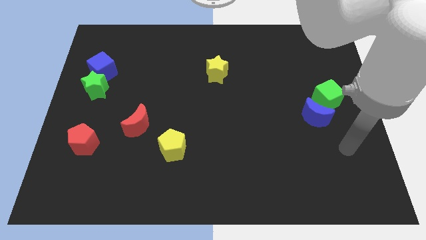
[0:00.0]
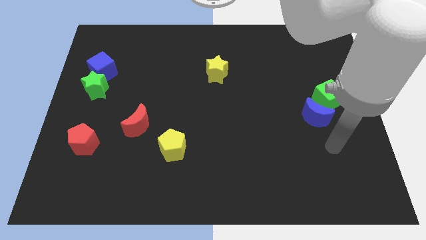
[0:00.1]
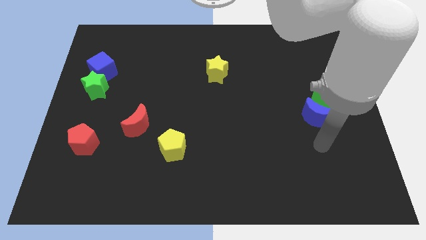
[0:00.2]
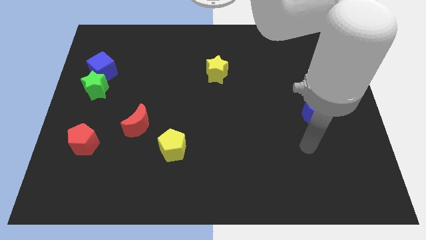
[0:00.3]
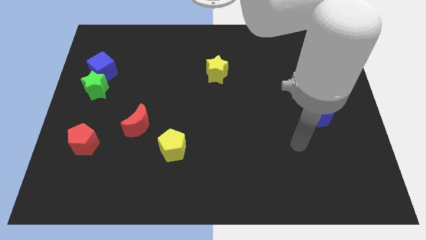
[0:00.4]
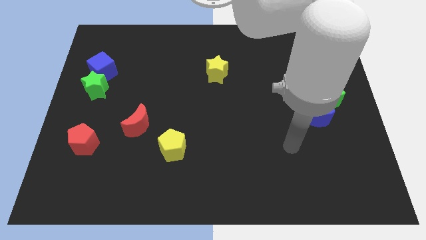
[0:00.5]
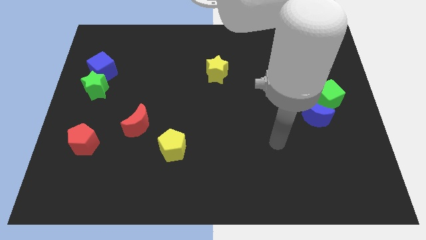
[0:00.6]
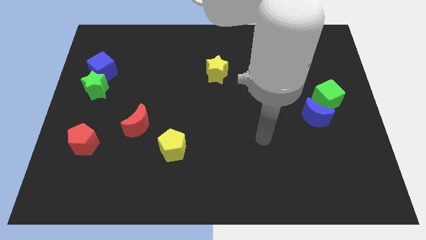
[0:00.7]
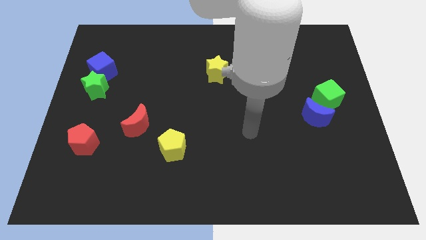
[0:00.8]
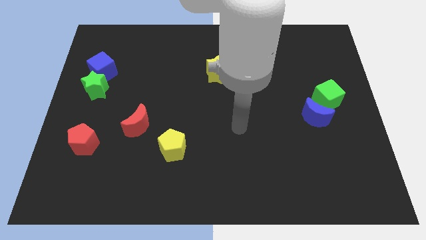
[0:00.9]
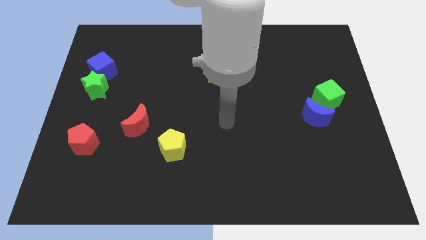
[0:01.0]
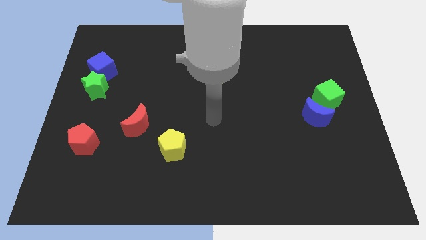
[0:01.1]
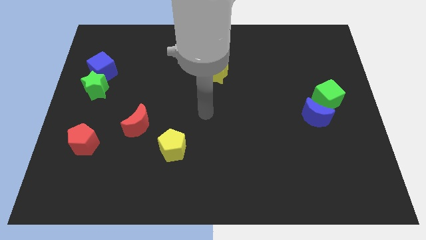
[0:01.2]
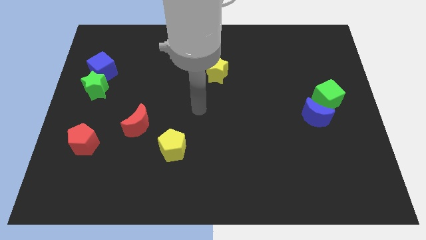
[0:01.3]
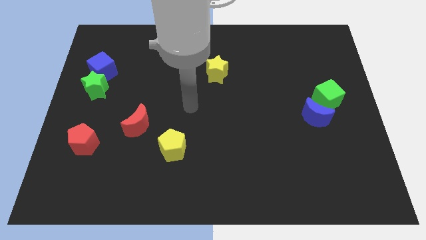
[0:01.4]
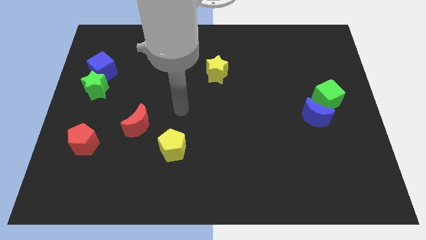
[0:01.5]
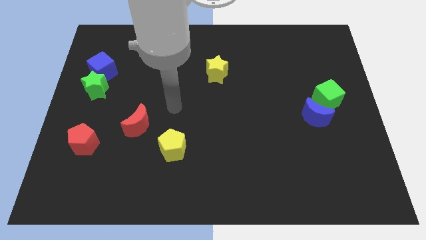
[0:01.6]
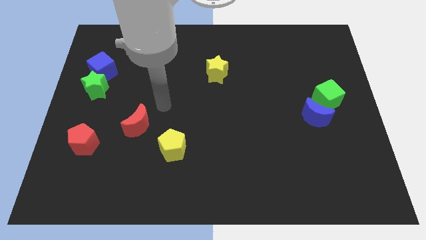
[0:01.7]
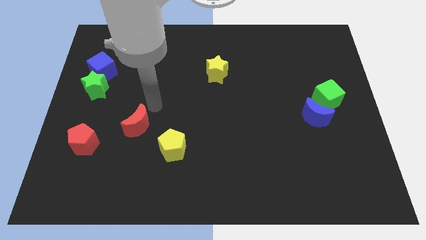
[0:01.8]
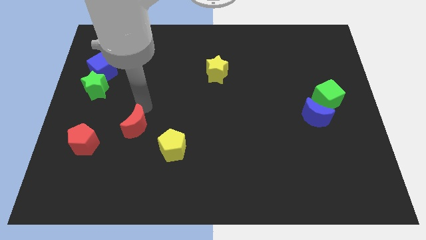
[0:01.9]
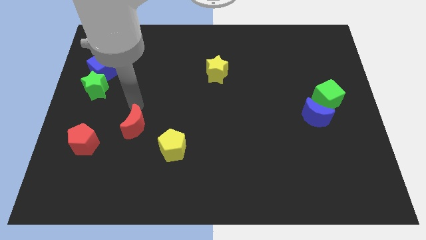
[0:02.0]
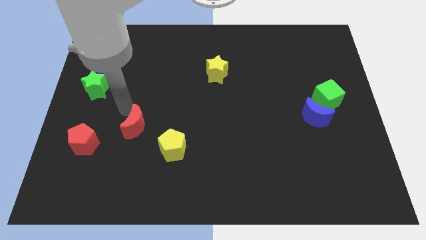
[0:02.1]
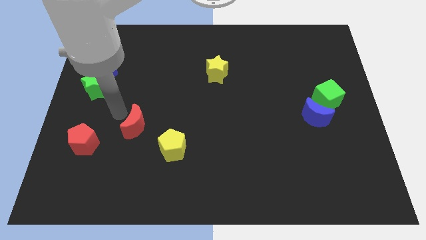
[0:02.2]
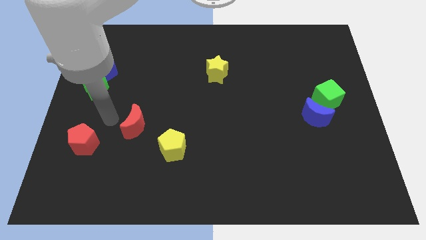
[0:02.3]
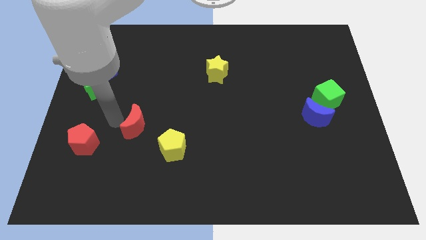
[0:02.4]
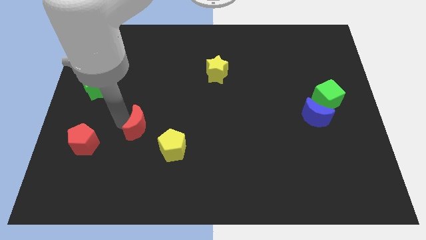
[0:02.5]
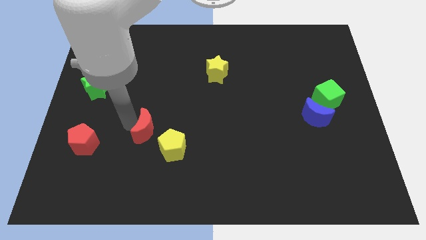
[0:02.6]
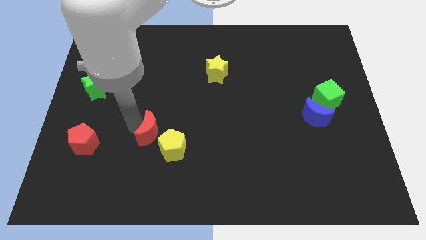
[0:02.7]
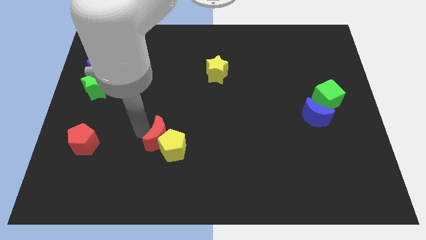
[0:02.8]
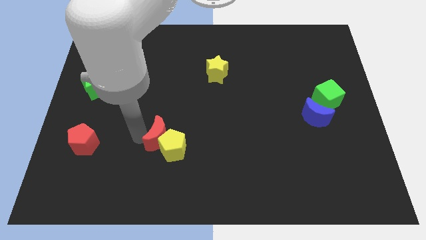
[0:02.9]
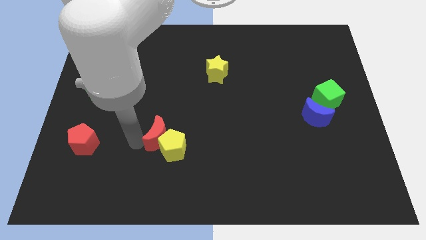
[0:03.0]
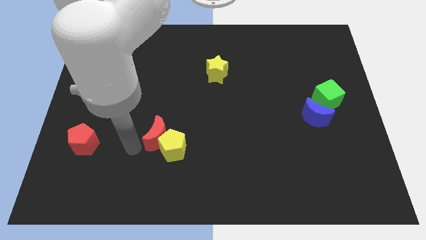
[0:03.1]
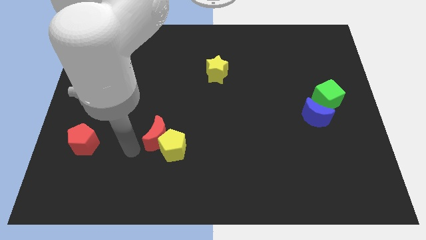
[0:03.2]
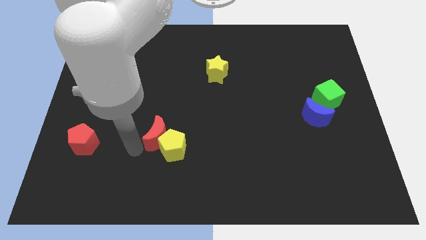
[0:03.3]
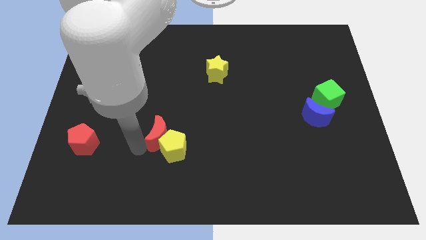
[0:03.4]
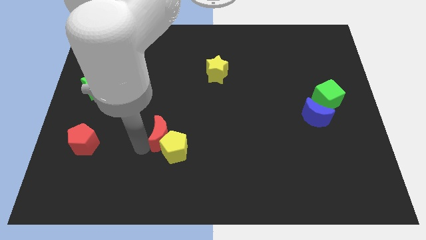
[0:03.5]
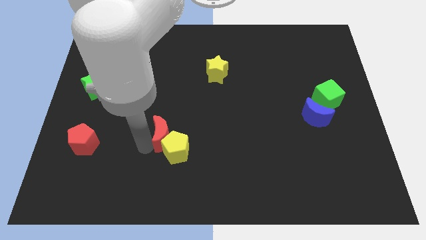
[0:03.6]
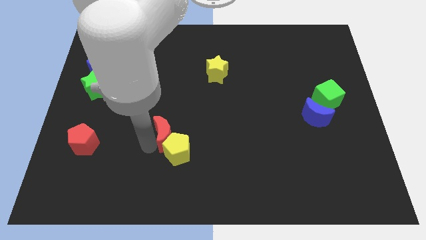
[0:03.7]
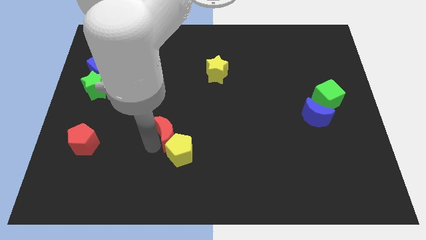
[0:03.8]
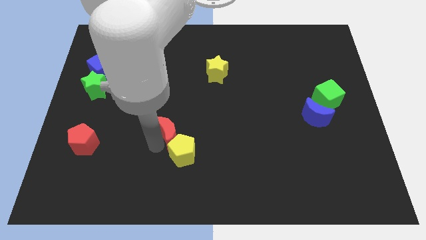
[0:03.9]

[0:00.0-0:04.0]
slightly move the red moon right

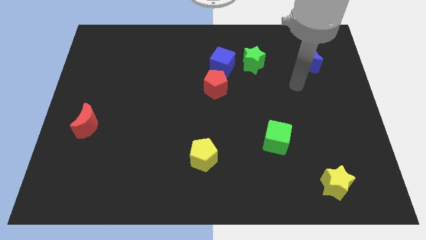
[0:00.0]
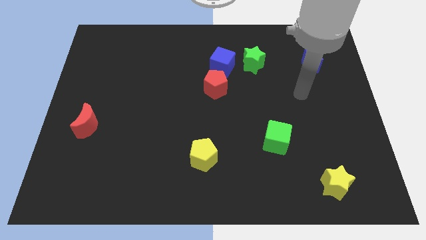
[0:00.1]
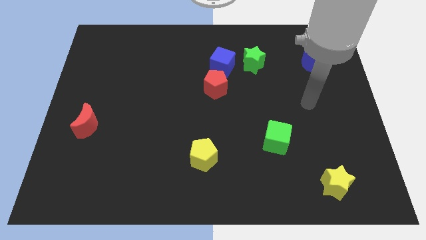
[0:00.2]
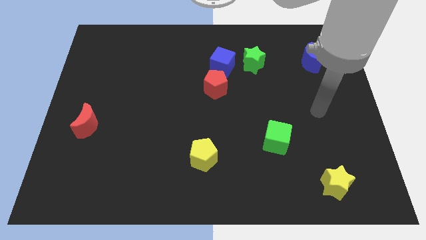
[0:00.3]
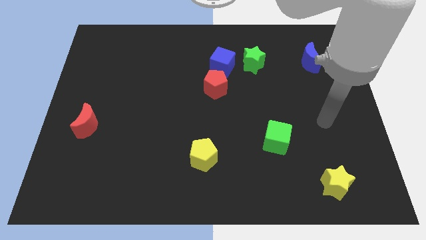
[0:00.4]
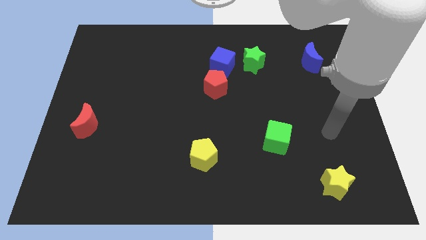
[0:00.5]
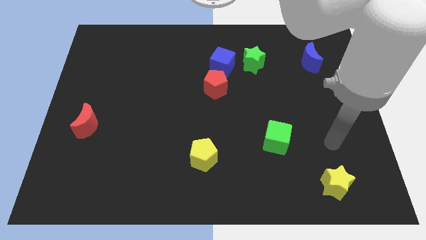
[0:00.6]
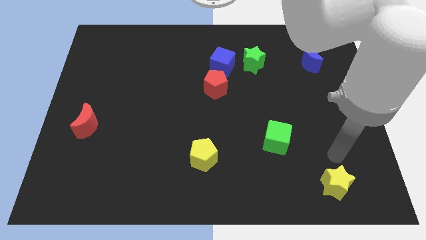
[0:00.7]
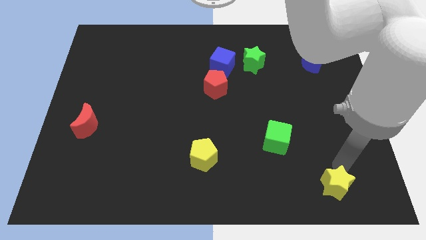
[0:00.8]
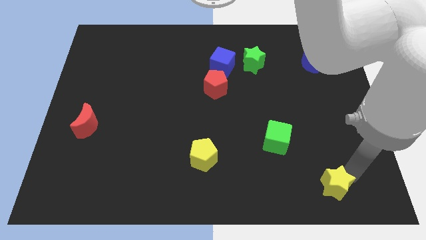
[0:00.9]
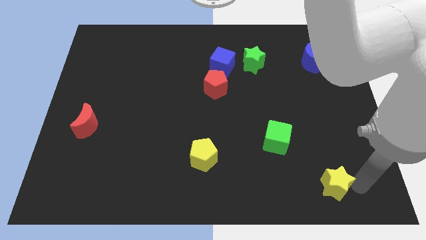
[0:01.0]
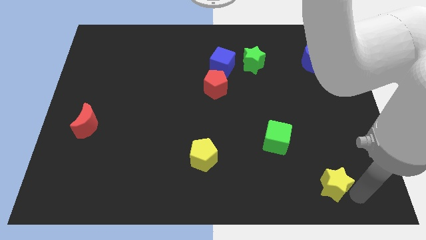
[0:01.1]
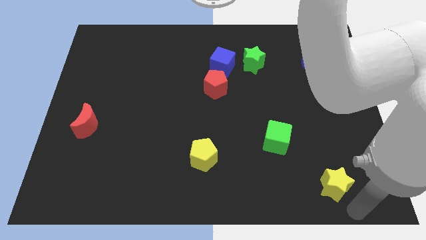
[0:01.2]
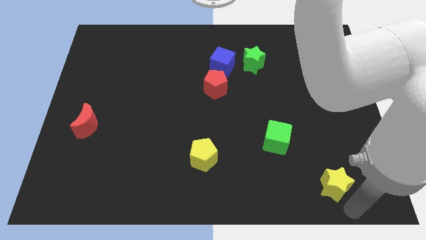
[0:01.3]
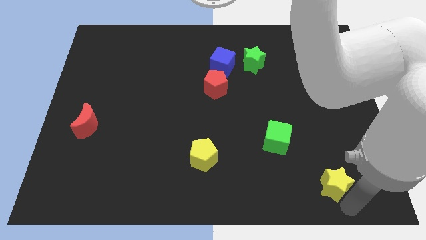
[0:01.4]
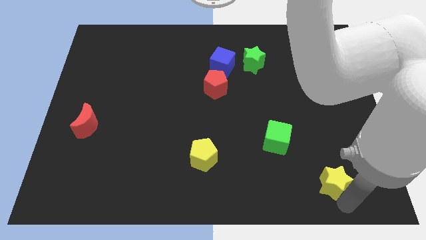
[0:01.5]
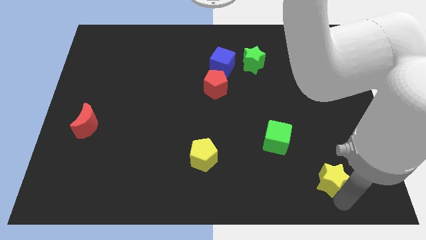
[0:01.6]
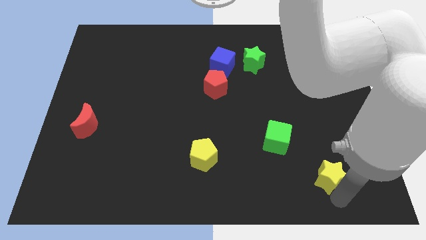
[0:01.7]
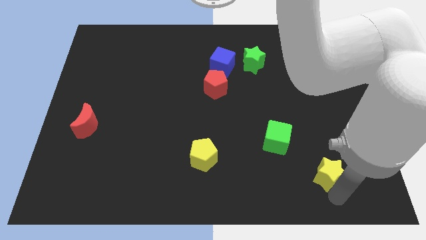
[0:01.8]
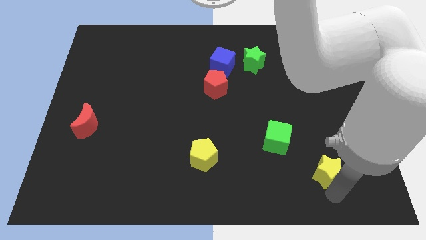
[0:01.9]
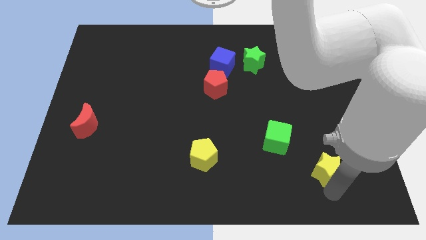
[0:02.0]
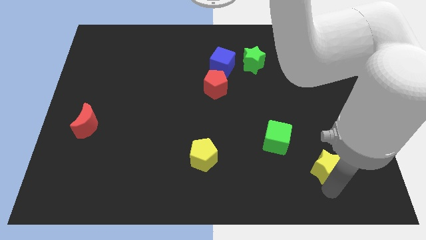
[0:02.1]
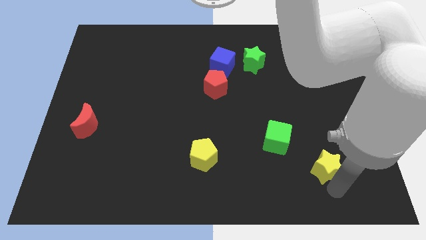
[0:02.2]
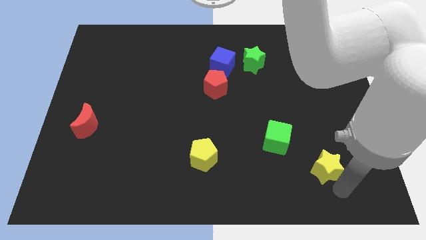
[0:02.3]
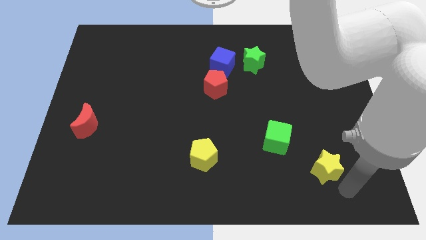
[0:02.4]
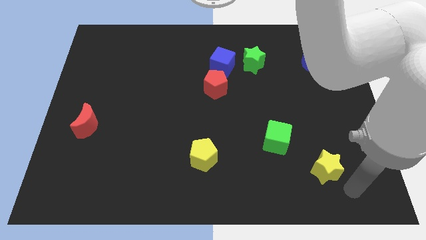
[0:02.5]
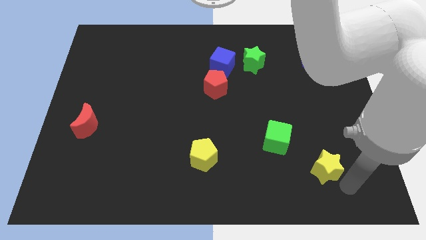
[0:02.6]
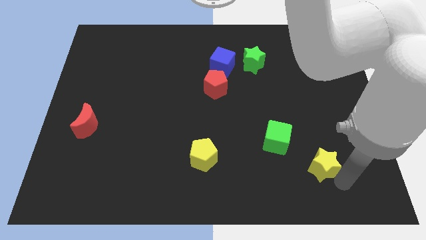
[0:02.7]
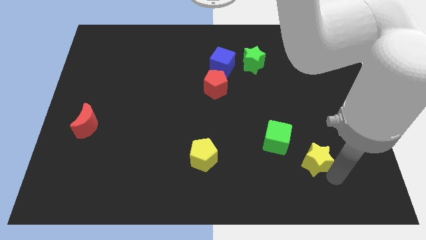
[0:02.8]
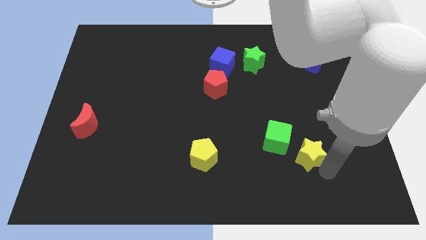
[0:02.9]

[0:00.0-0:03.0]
slightly move the yellow star diagonally upwards and to the left

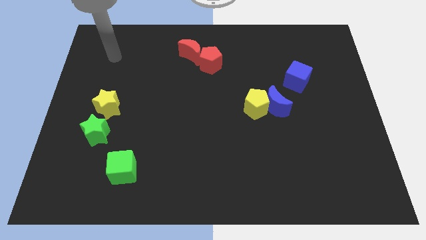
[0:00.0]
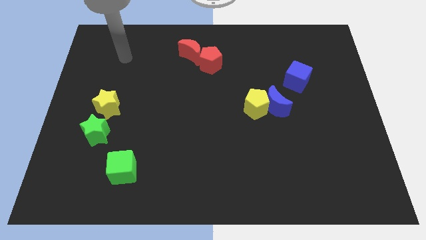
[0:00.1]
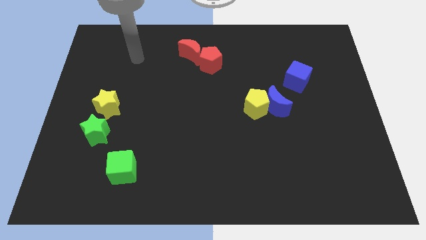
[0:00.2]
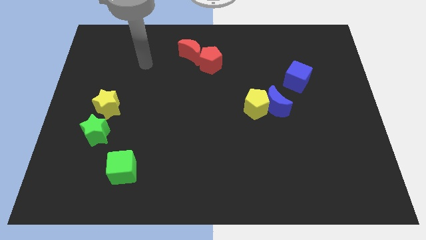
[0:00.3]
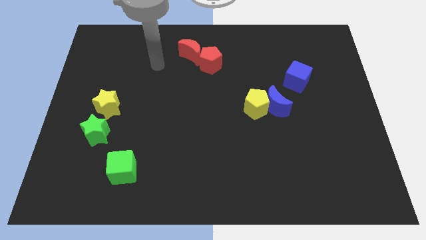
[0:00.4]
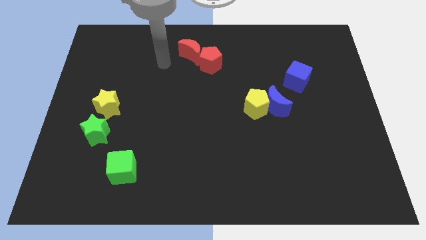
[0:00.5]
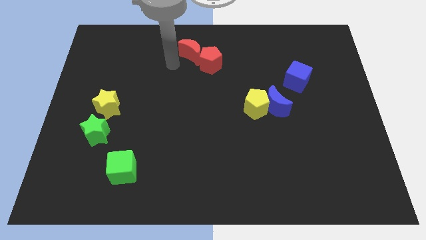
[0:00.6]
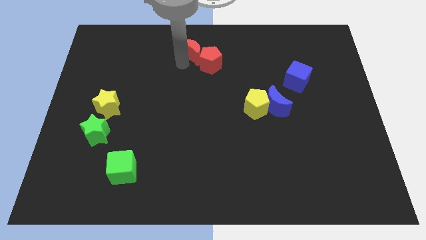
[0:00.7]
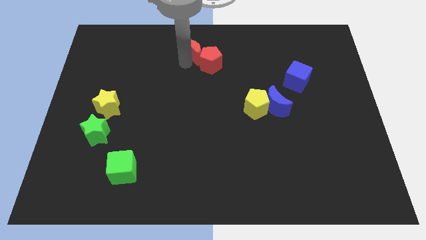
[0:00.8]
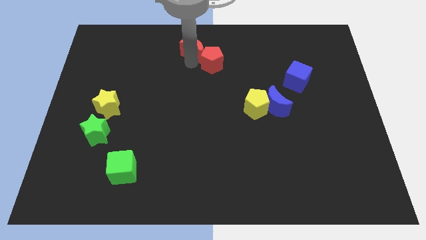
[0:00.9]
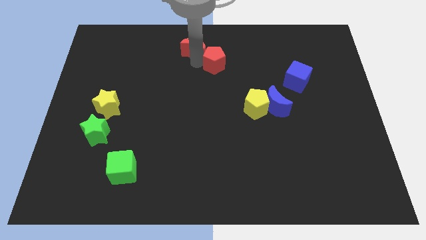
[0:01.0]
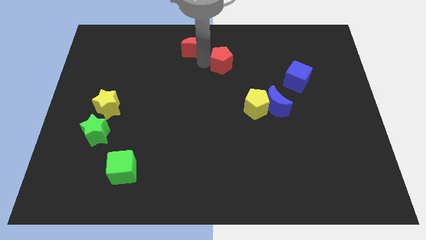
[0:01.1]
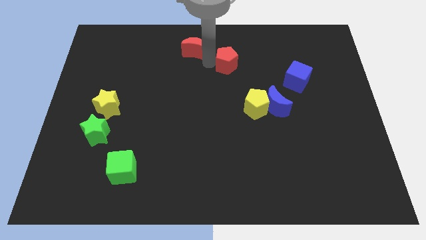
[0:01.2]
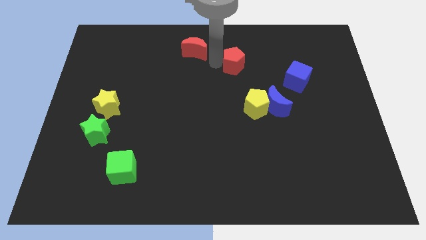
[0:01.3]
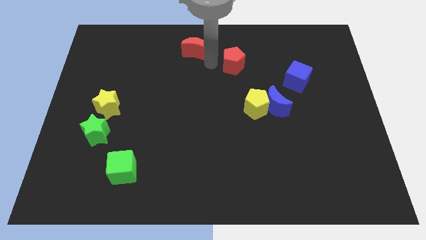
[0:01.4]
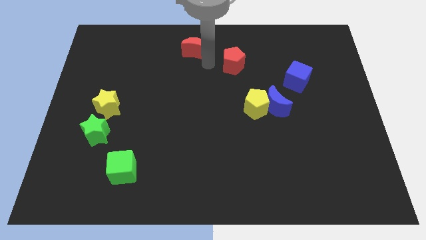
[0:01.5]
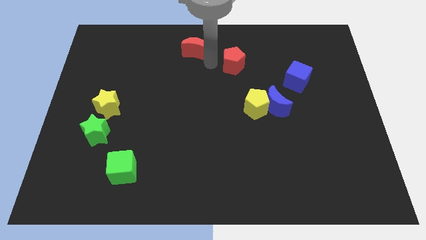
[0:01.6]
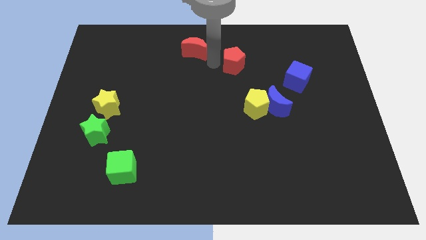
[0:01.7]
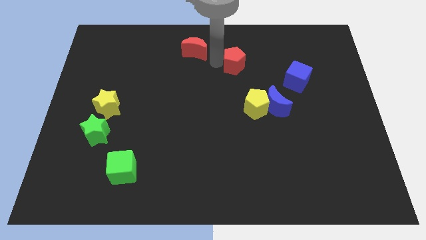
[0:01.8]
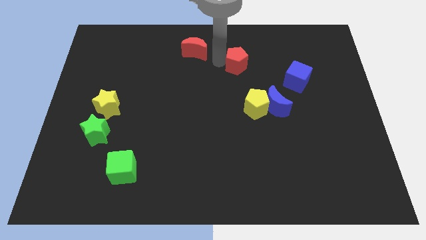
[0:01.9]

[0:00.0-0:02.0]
slightly move the red pentagon to the right
